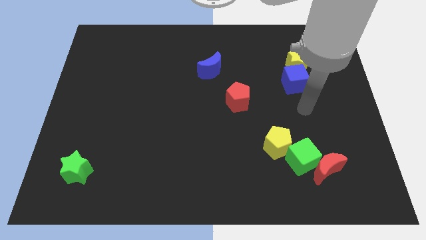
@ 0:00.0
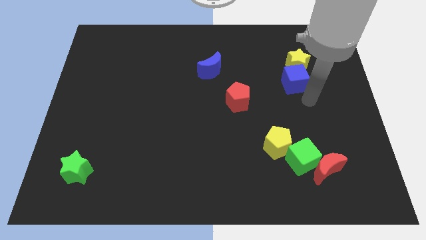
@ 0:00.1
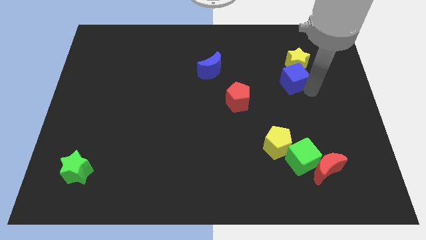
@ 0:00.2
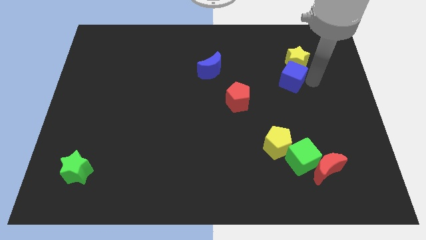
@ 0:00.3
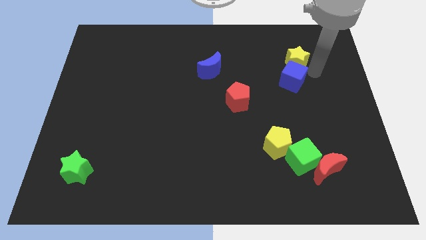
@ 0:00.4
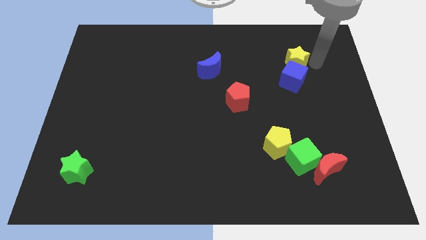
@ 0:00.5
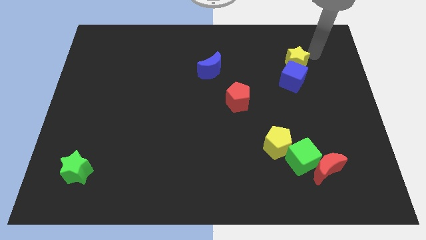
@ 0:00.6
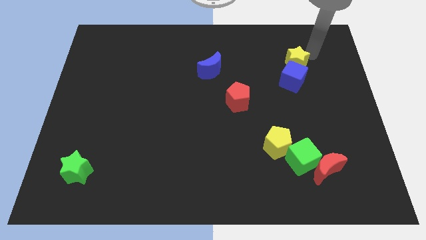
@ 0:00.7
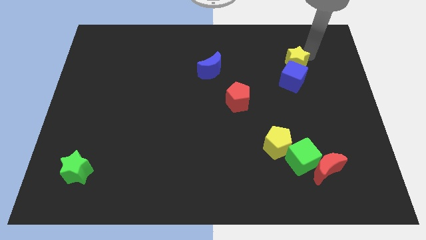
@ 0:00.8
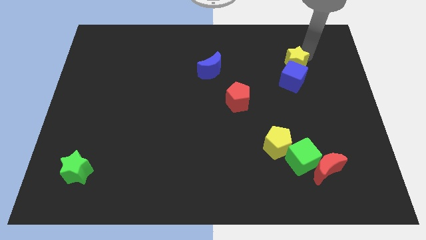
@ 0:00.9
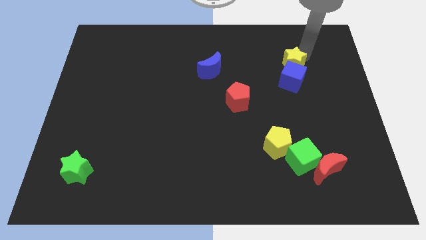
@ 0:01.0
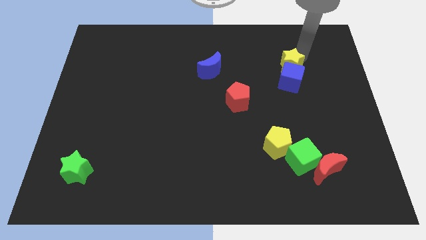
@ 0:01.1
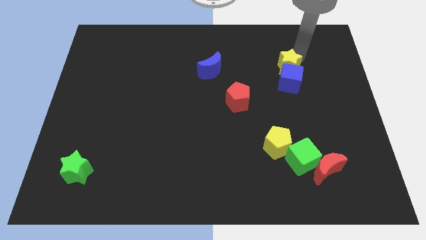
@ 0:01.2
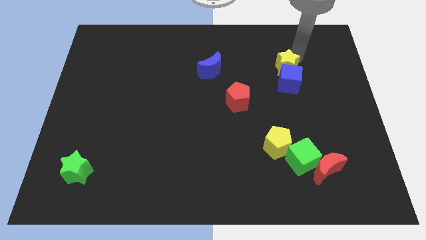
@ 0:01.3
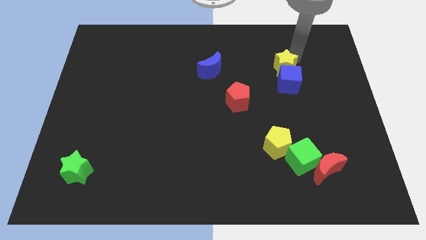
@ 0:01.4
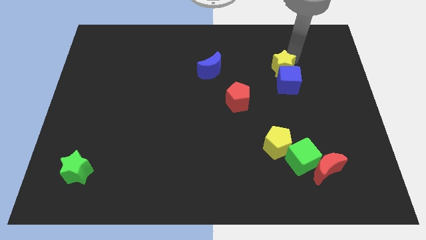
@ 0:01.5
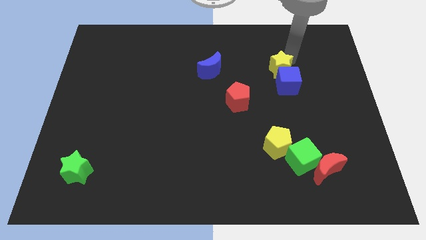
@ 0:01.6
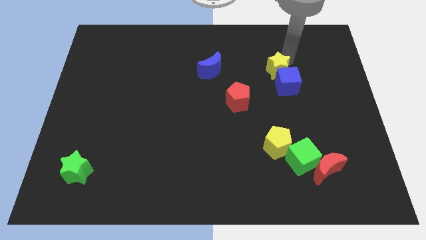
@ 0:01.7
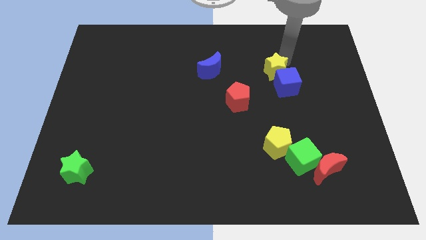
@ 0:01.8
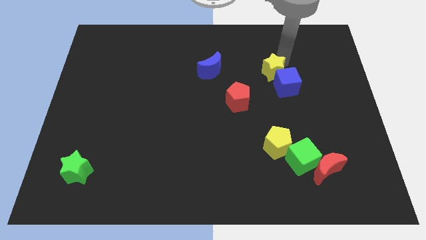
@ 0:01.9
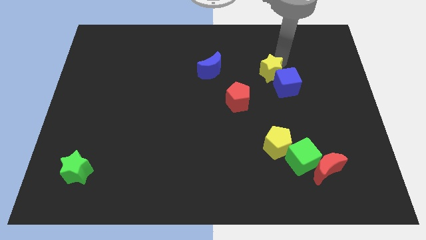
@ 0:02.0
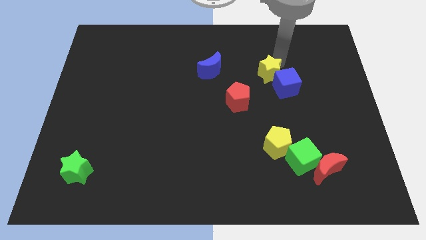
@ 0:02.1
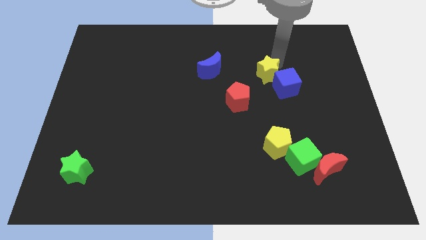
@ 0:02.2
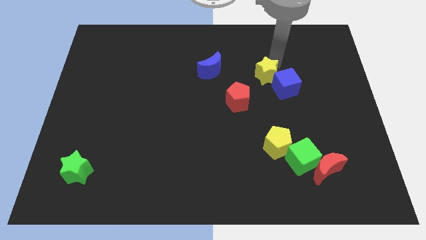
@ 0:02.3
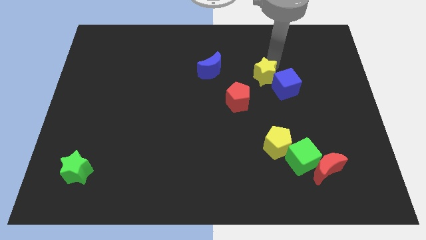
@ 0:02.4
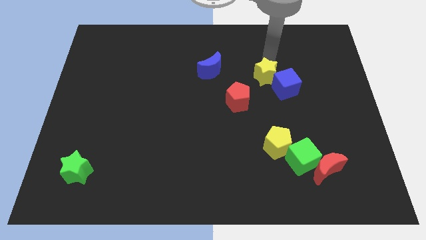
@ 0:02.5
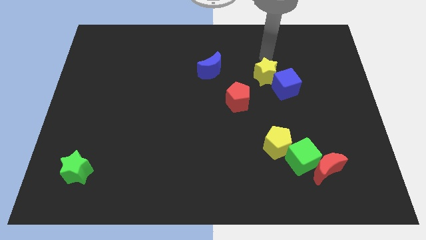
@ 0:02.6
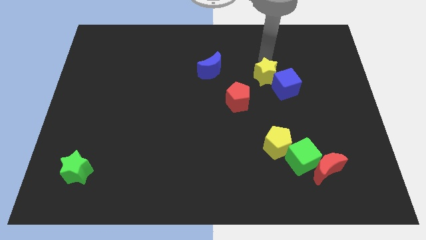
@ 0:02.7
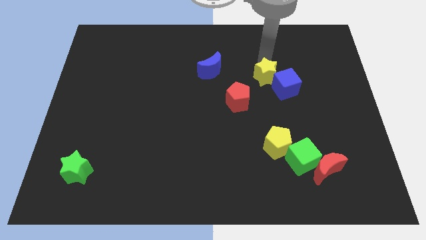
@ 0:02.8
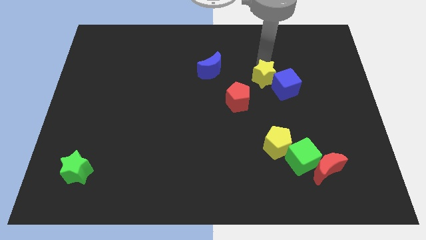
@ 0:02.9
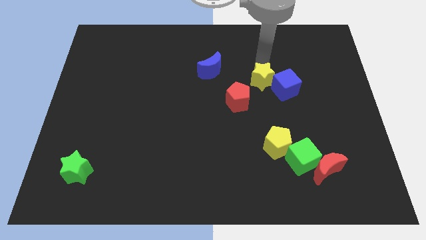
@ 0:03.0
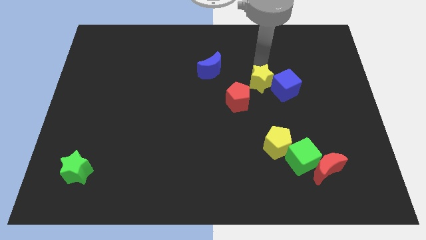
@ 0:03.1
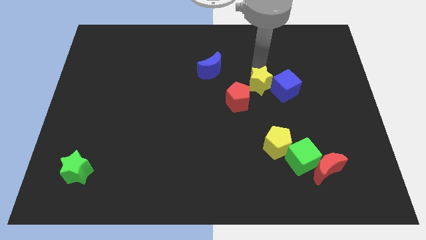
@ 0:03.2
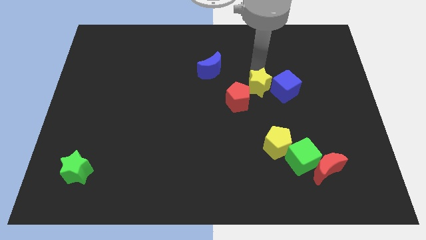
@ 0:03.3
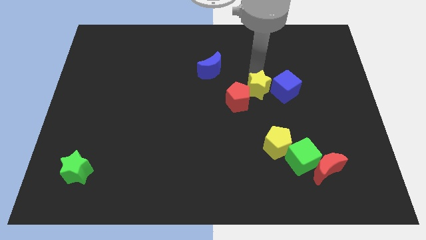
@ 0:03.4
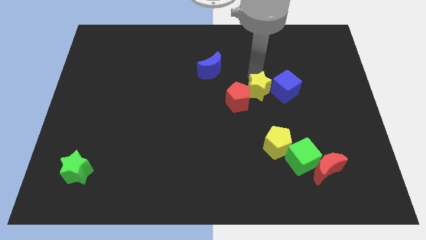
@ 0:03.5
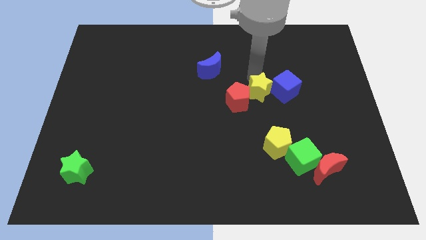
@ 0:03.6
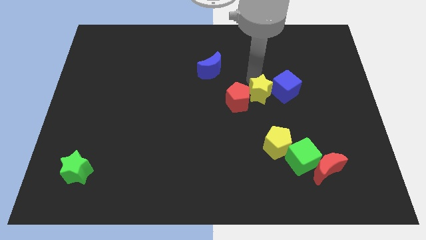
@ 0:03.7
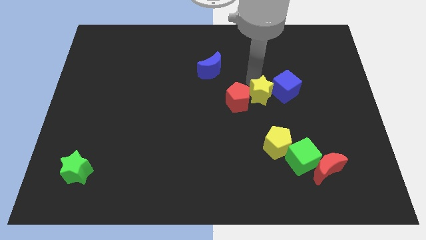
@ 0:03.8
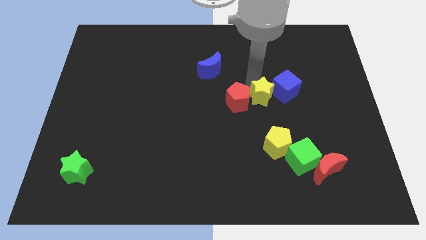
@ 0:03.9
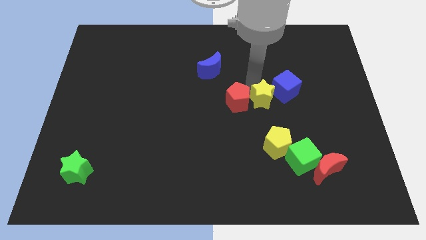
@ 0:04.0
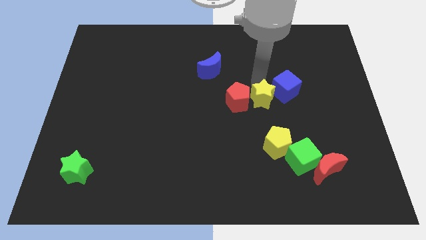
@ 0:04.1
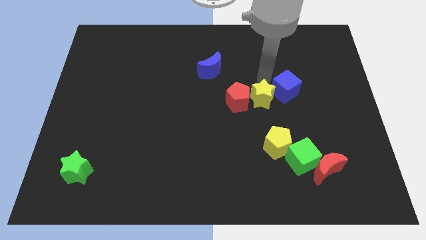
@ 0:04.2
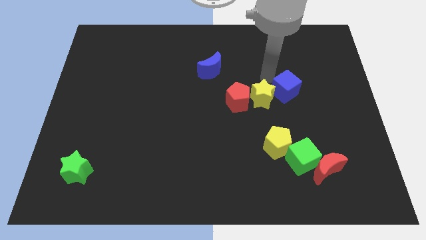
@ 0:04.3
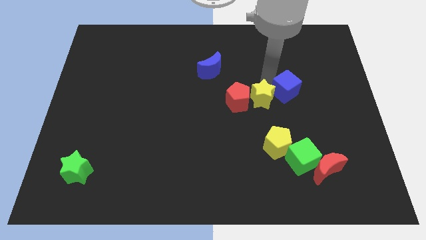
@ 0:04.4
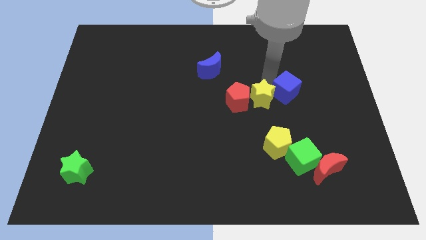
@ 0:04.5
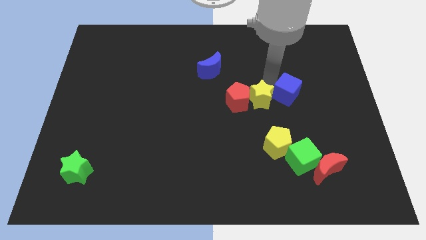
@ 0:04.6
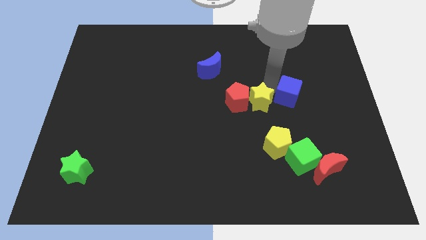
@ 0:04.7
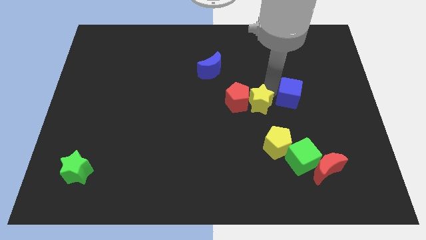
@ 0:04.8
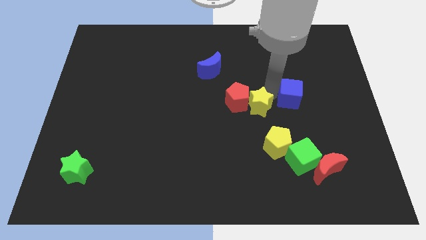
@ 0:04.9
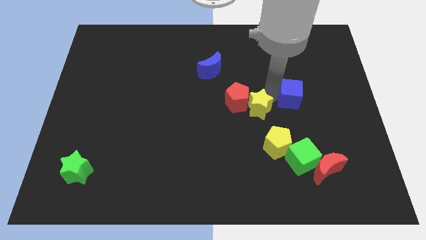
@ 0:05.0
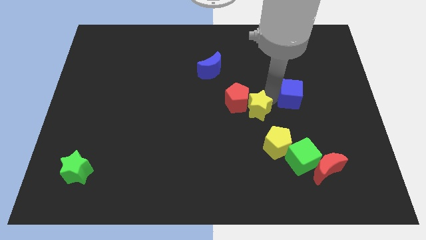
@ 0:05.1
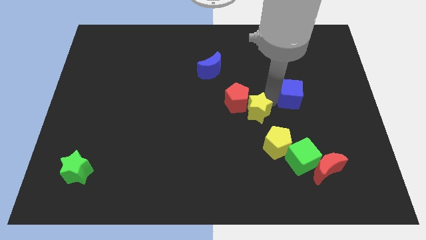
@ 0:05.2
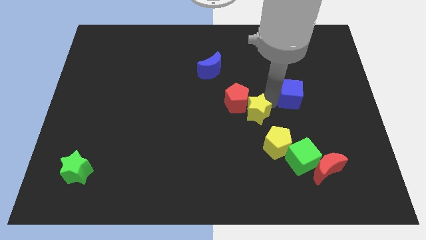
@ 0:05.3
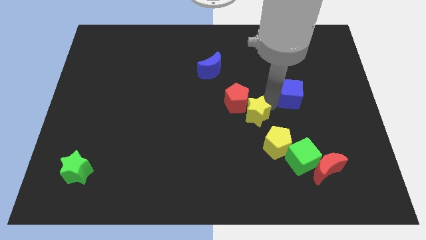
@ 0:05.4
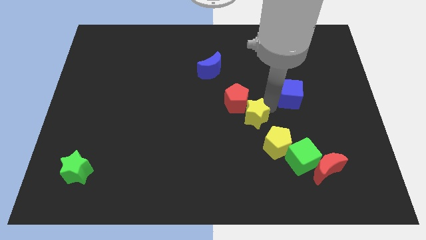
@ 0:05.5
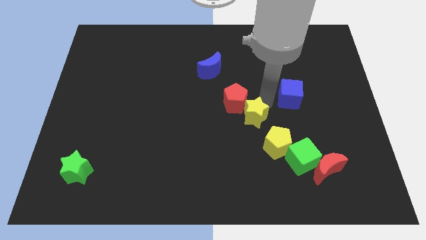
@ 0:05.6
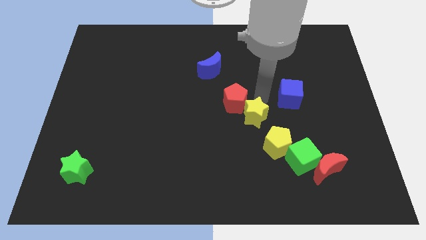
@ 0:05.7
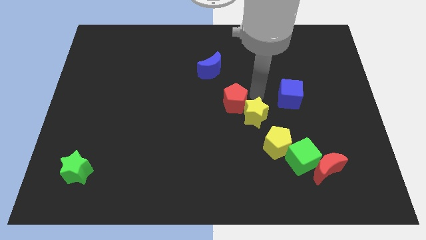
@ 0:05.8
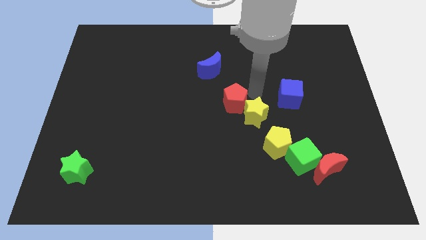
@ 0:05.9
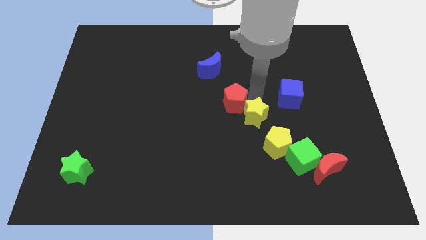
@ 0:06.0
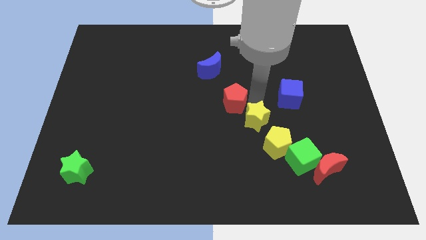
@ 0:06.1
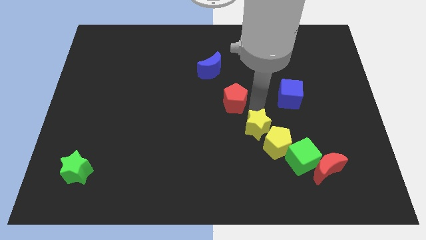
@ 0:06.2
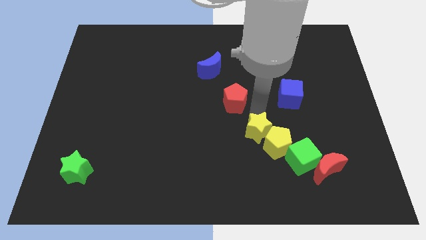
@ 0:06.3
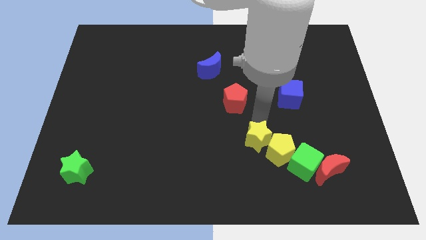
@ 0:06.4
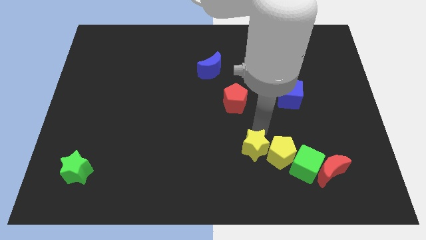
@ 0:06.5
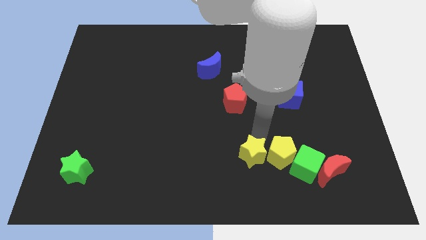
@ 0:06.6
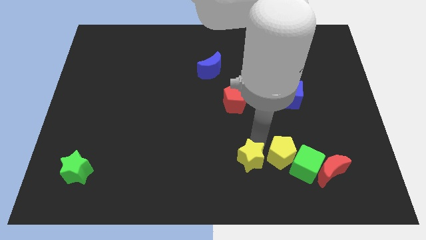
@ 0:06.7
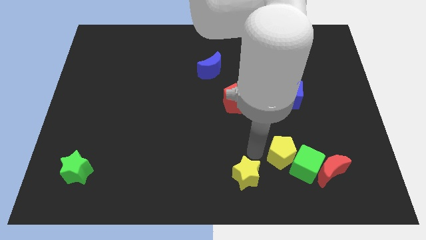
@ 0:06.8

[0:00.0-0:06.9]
slide the yellow star to the bottom side
